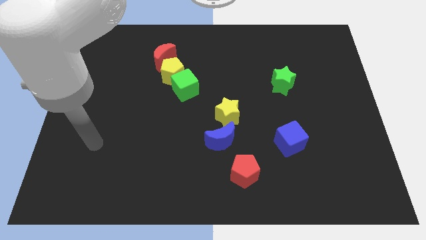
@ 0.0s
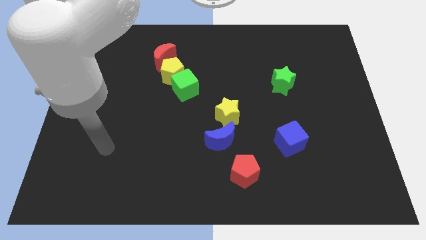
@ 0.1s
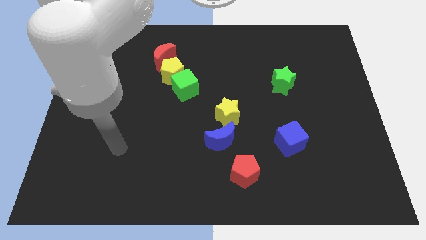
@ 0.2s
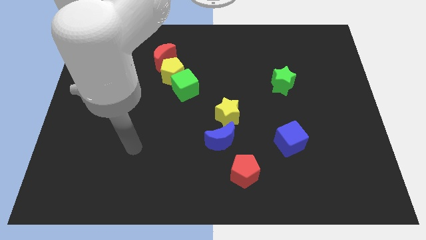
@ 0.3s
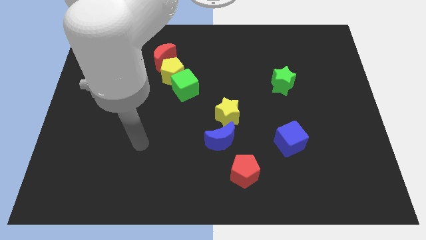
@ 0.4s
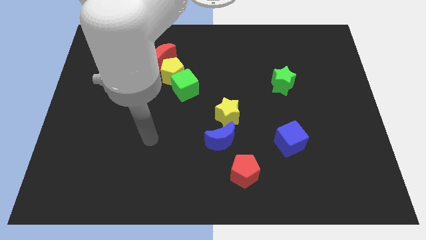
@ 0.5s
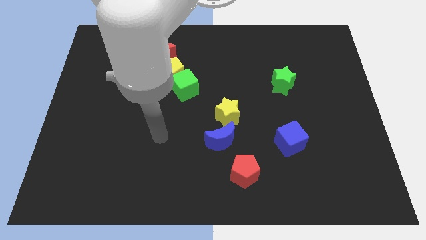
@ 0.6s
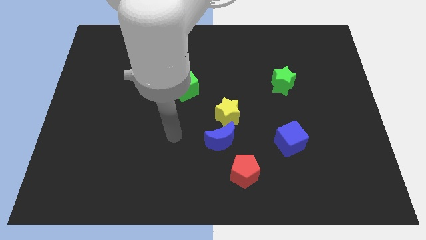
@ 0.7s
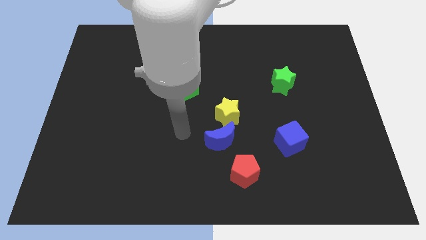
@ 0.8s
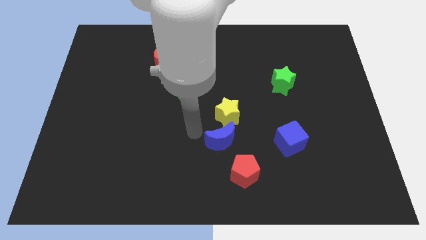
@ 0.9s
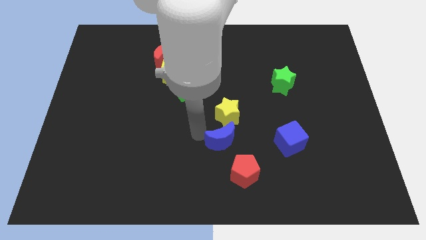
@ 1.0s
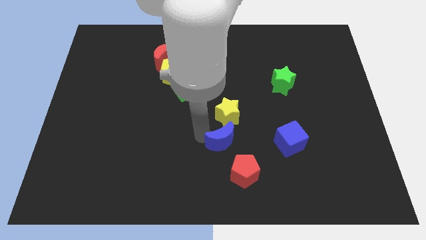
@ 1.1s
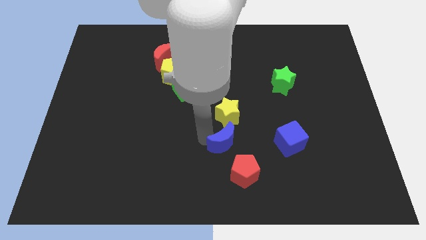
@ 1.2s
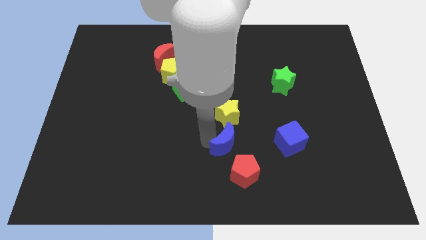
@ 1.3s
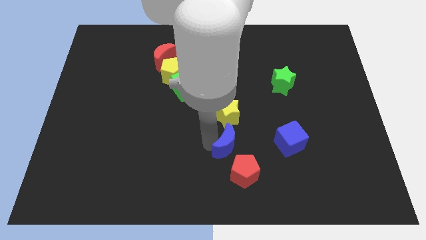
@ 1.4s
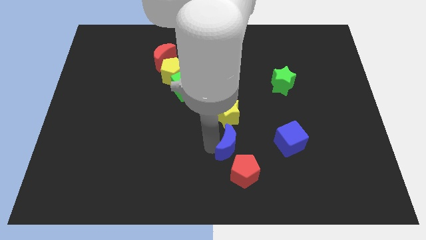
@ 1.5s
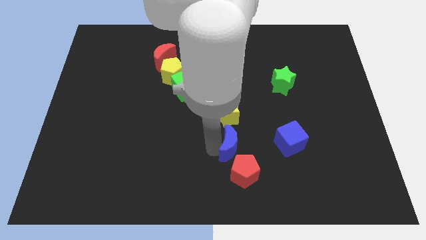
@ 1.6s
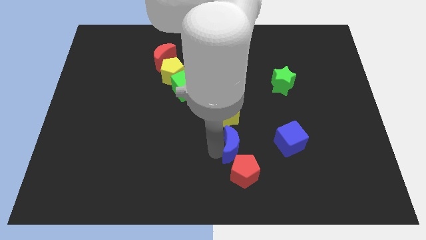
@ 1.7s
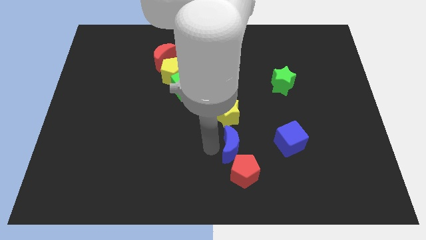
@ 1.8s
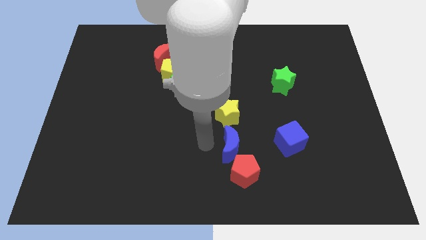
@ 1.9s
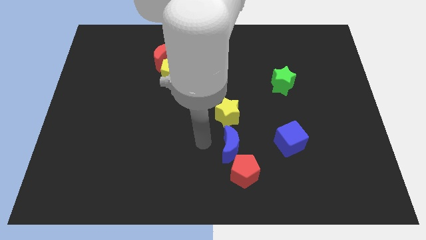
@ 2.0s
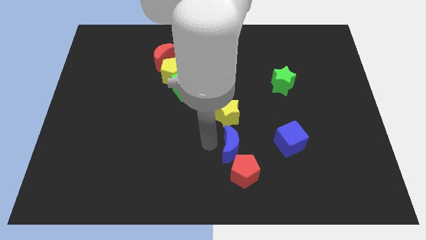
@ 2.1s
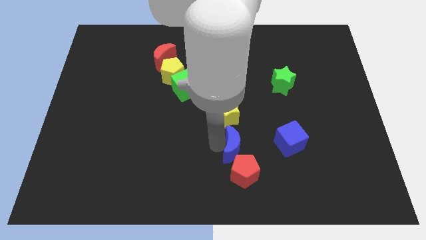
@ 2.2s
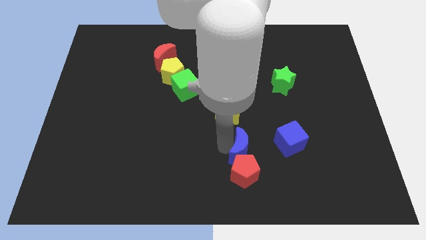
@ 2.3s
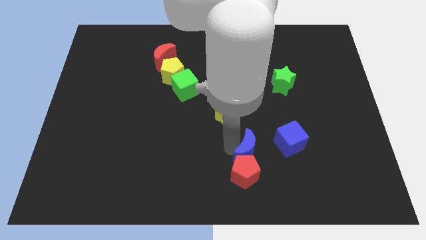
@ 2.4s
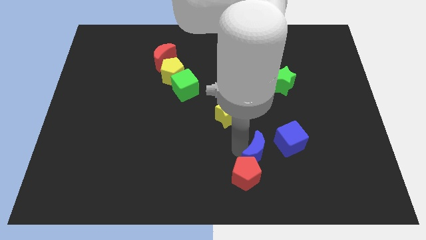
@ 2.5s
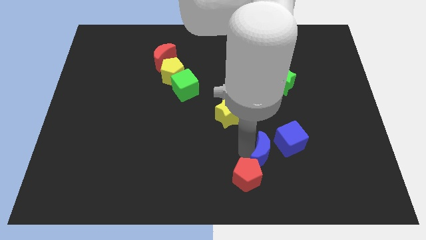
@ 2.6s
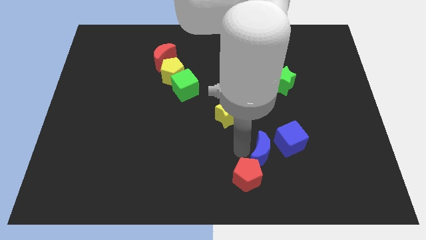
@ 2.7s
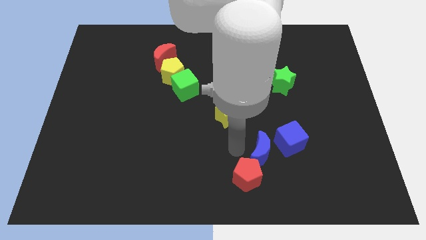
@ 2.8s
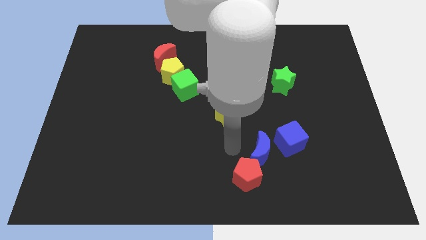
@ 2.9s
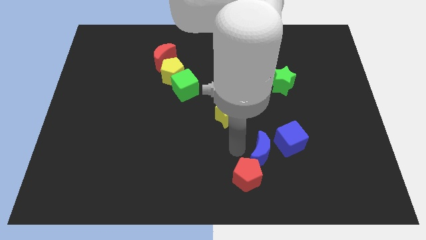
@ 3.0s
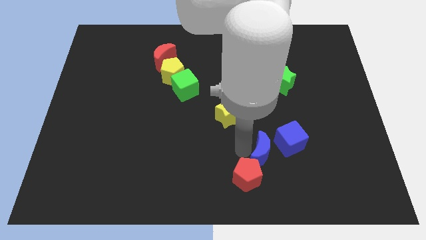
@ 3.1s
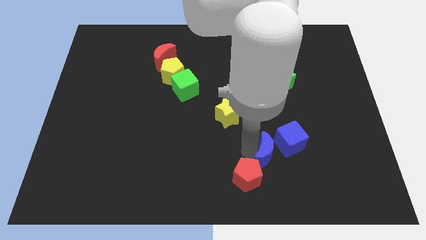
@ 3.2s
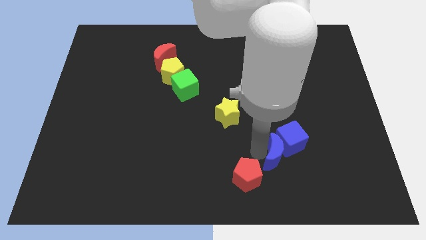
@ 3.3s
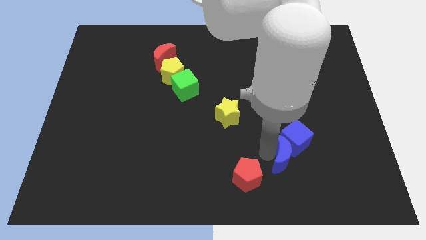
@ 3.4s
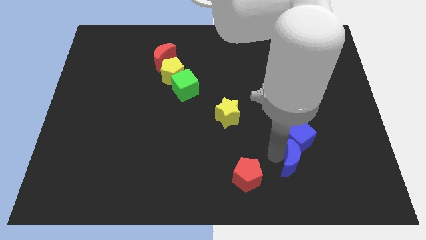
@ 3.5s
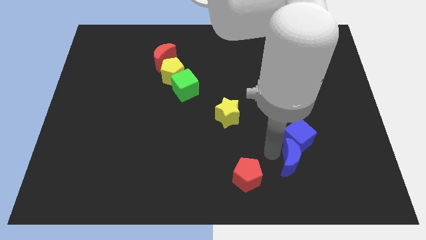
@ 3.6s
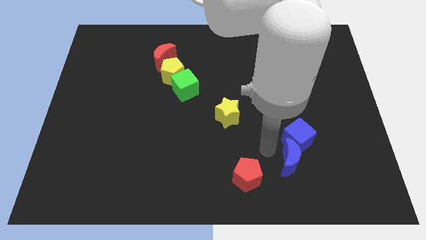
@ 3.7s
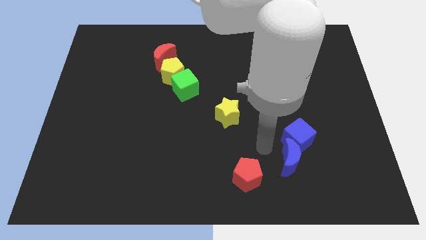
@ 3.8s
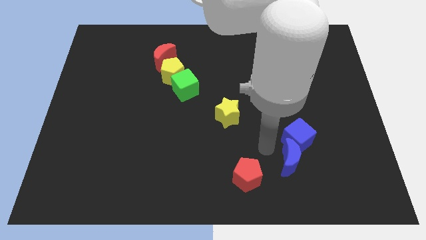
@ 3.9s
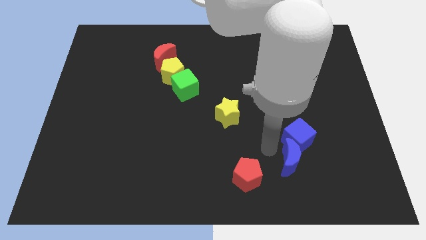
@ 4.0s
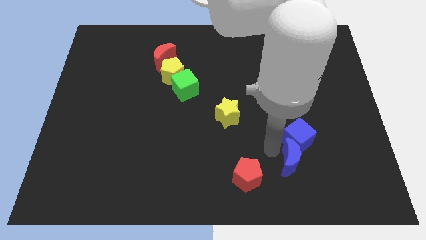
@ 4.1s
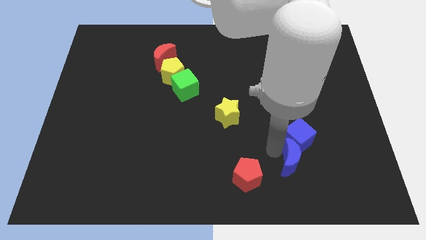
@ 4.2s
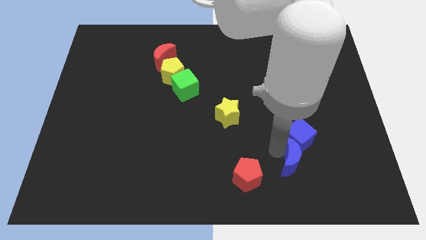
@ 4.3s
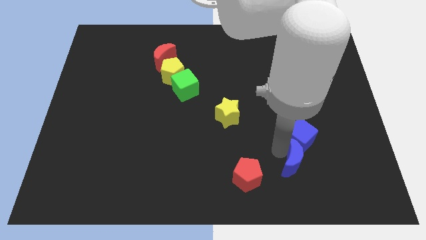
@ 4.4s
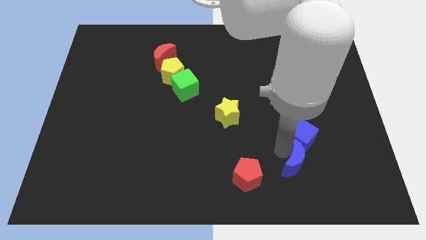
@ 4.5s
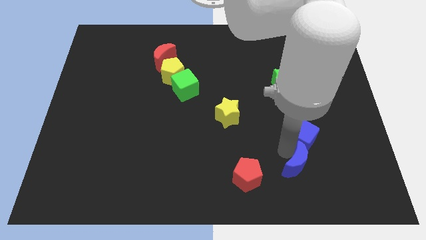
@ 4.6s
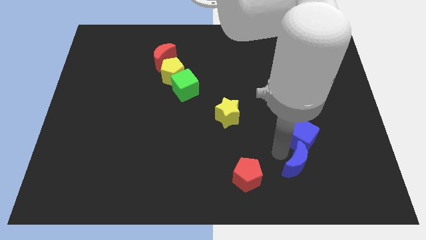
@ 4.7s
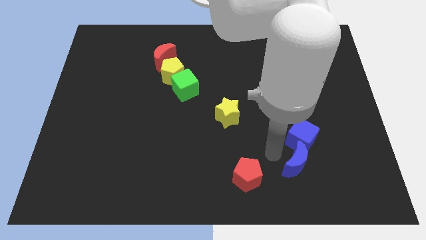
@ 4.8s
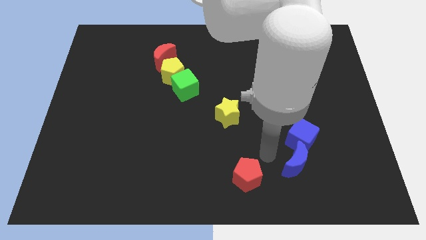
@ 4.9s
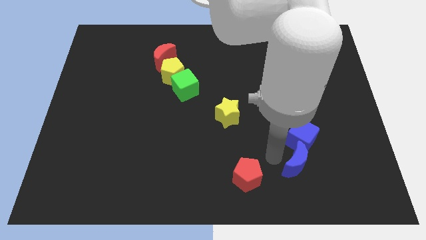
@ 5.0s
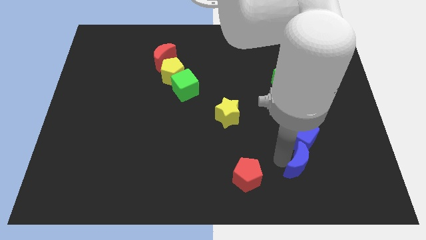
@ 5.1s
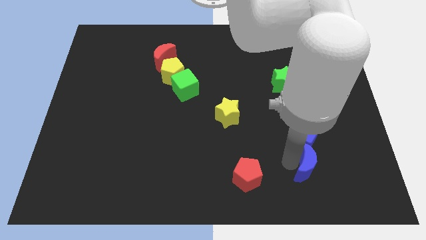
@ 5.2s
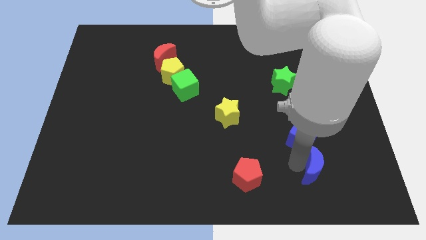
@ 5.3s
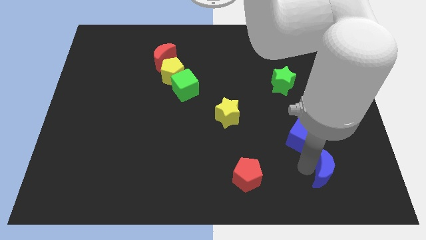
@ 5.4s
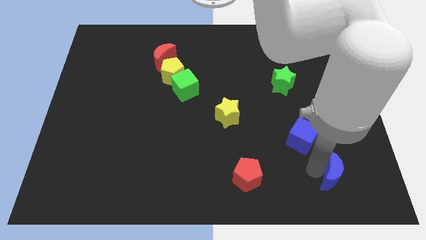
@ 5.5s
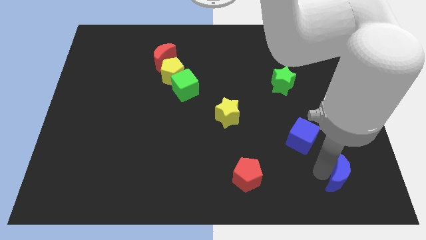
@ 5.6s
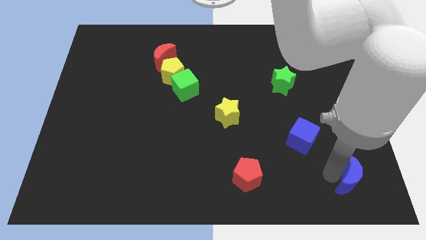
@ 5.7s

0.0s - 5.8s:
move the blue moon to the bottom right corner

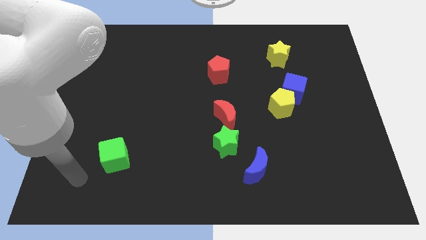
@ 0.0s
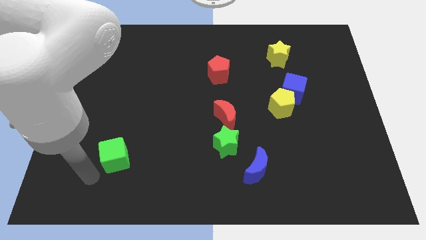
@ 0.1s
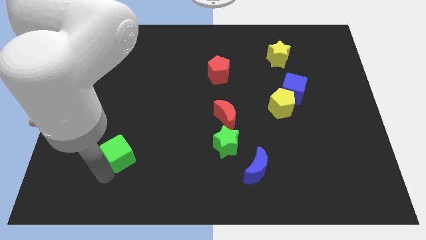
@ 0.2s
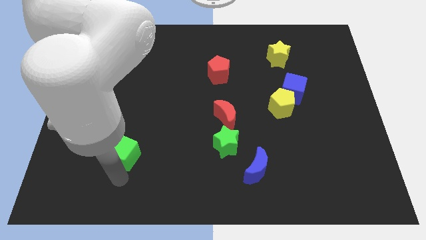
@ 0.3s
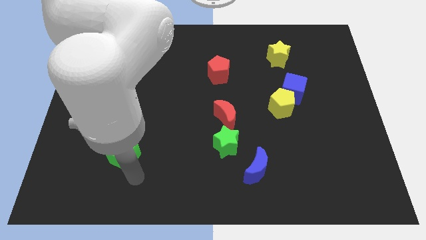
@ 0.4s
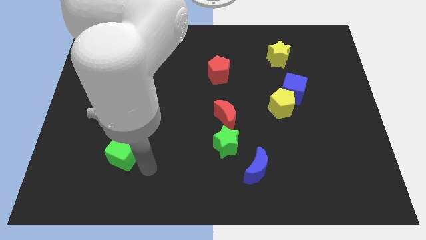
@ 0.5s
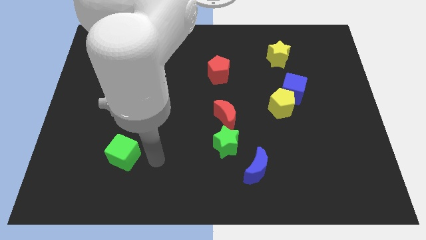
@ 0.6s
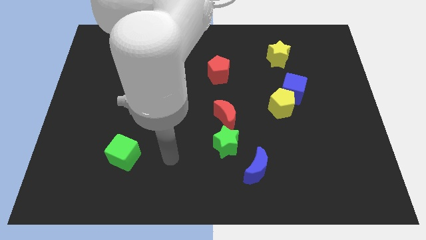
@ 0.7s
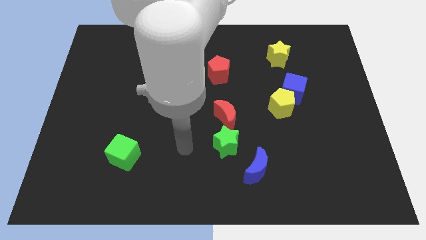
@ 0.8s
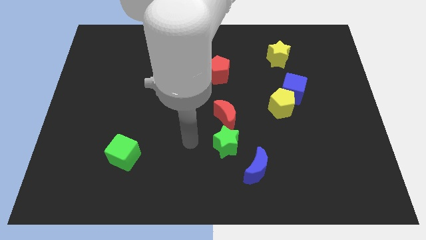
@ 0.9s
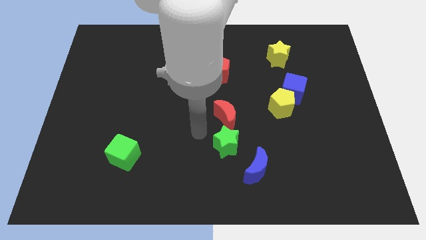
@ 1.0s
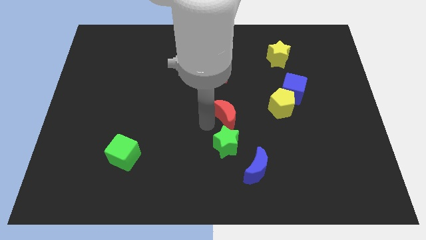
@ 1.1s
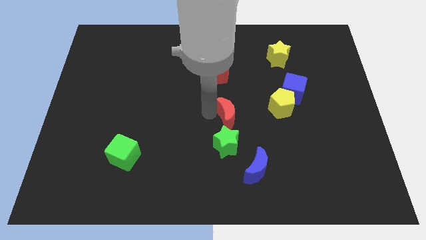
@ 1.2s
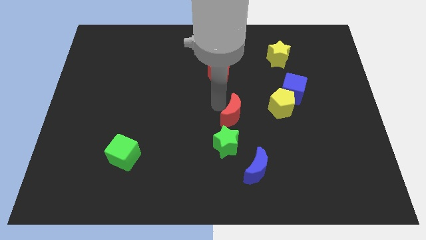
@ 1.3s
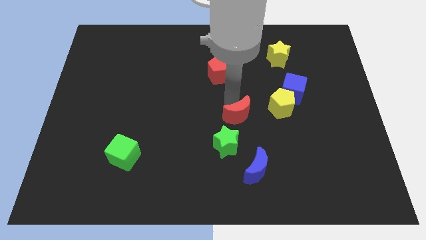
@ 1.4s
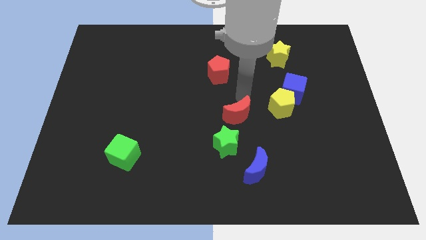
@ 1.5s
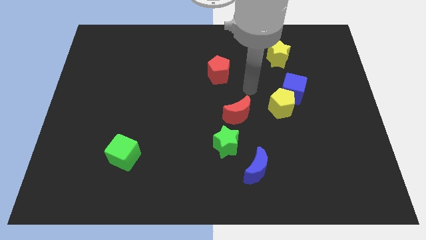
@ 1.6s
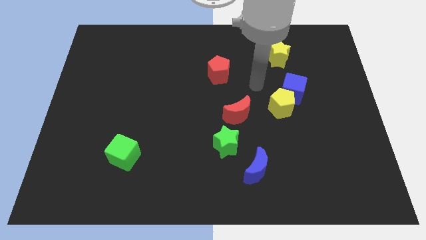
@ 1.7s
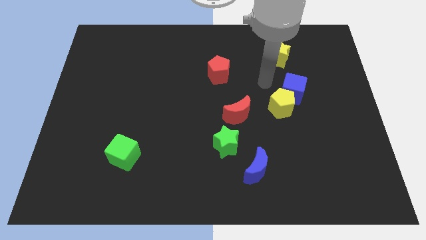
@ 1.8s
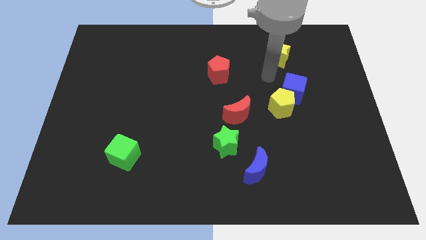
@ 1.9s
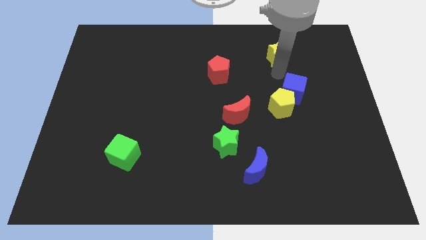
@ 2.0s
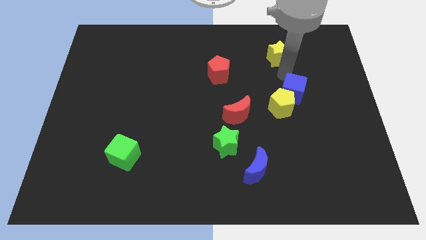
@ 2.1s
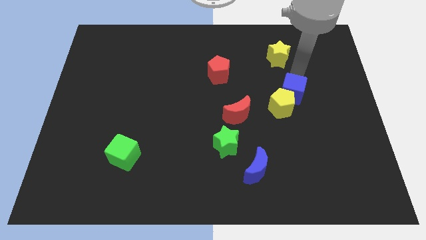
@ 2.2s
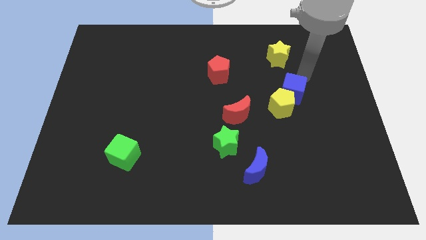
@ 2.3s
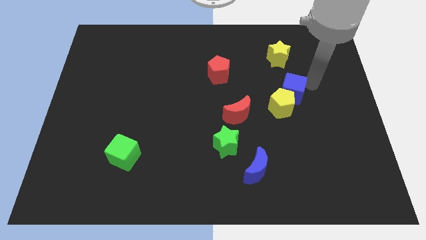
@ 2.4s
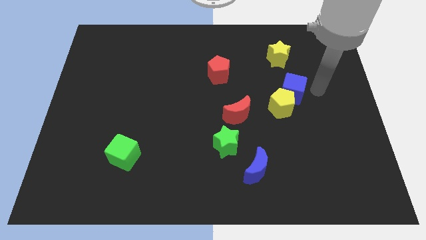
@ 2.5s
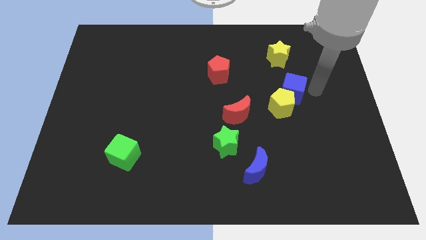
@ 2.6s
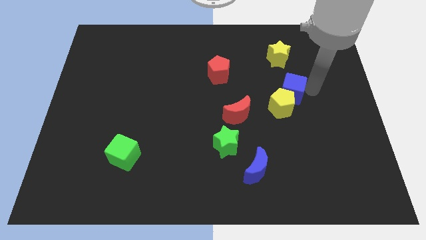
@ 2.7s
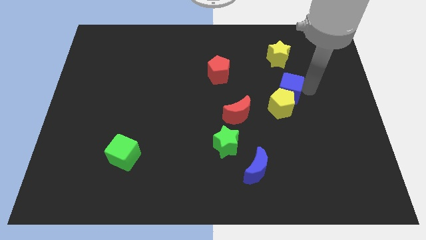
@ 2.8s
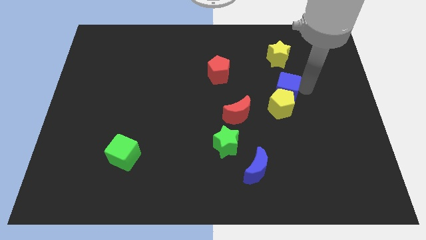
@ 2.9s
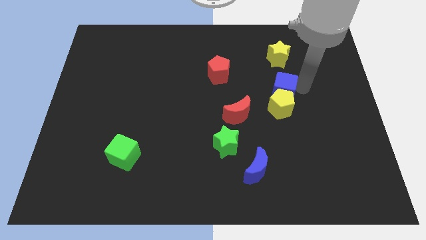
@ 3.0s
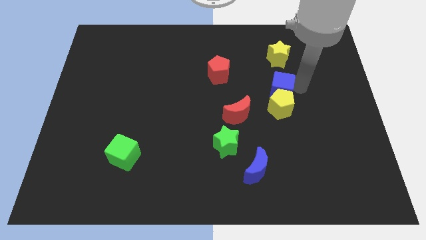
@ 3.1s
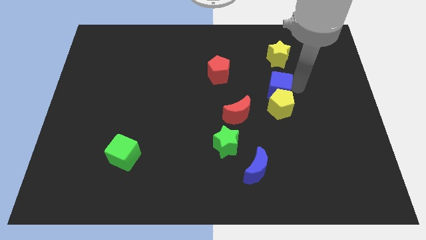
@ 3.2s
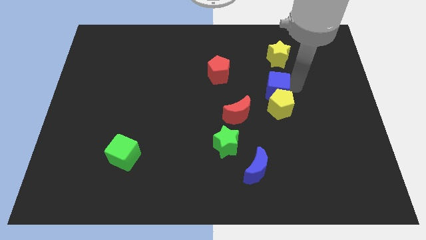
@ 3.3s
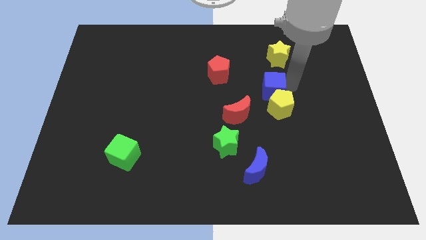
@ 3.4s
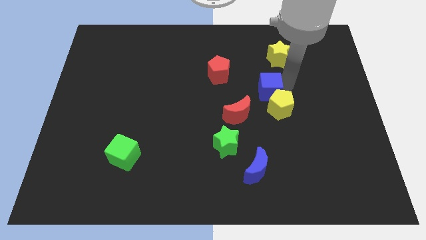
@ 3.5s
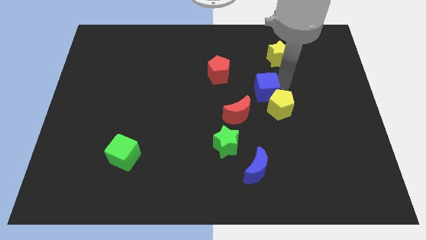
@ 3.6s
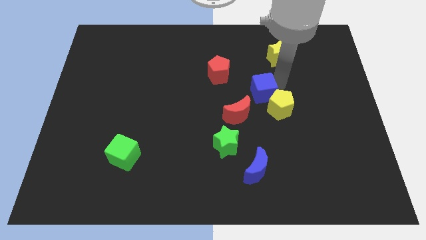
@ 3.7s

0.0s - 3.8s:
slide the blue cube to the middle of the board
